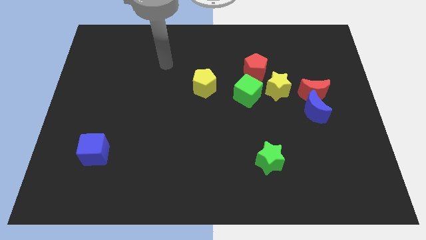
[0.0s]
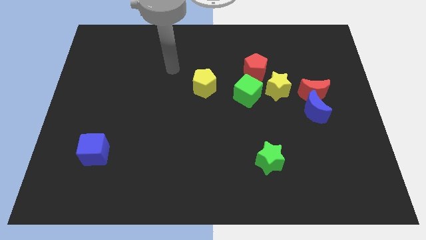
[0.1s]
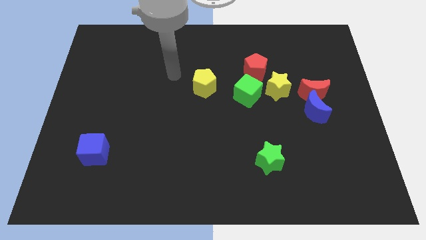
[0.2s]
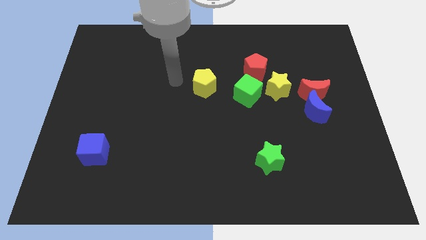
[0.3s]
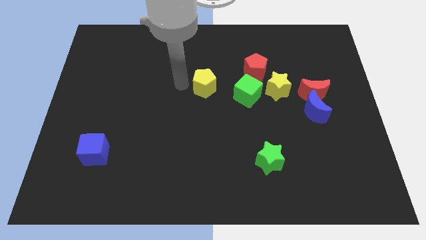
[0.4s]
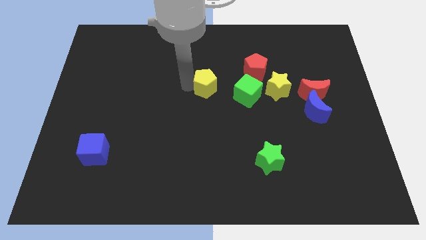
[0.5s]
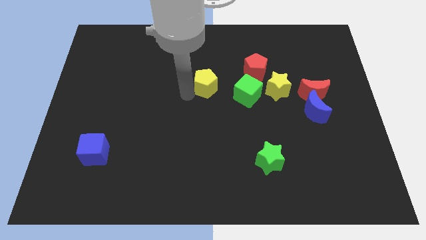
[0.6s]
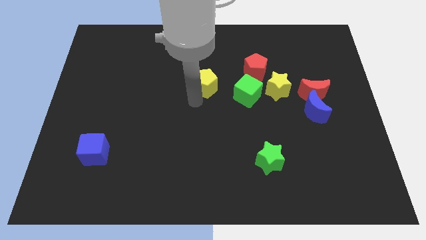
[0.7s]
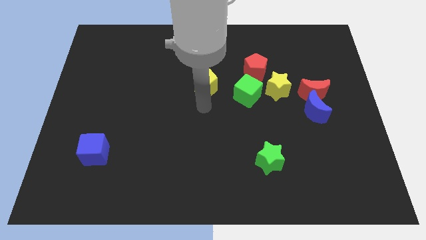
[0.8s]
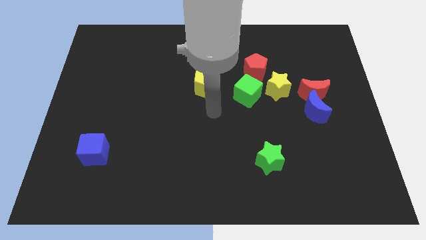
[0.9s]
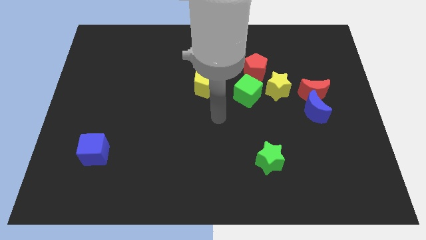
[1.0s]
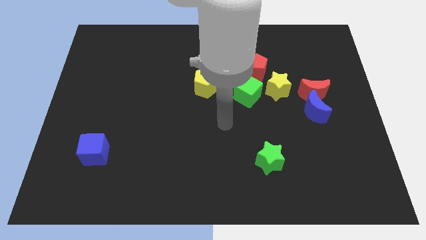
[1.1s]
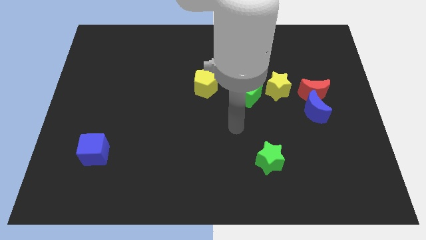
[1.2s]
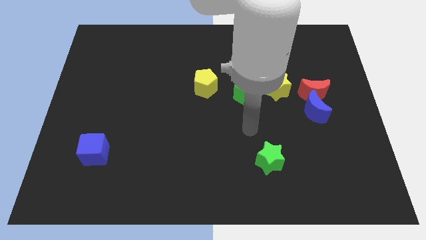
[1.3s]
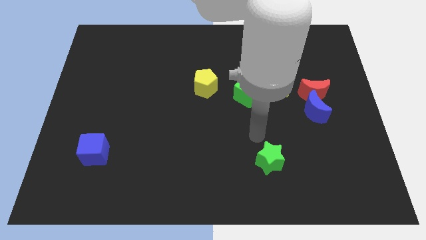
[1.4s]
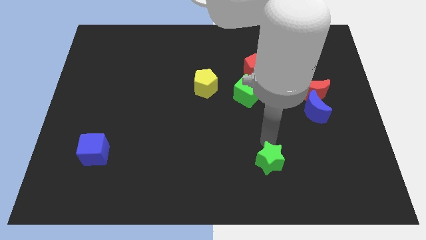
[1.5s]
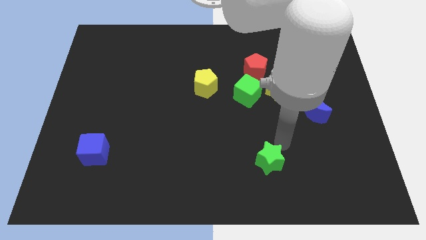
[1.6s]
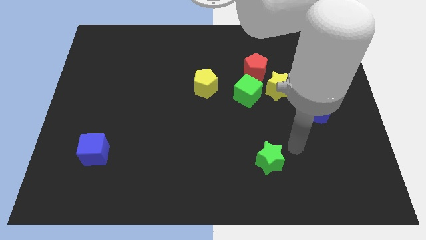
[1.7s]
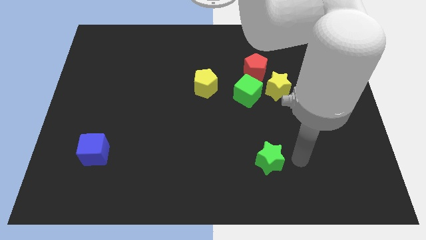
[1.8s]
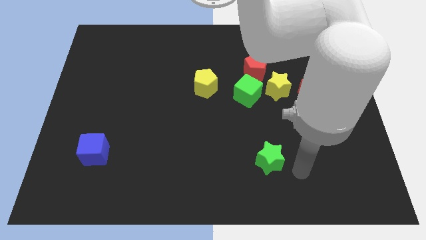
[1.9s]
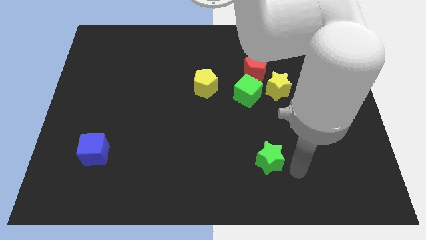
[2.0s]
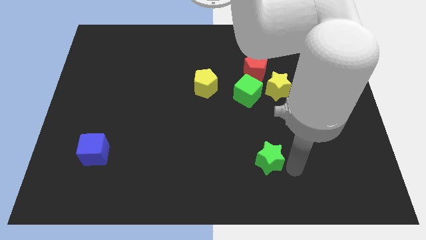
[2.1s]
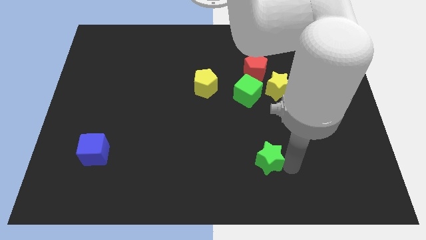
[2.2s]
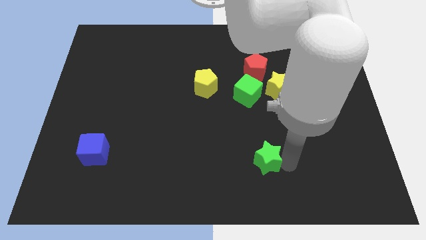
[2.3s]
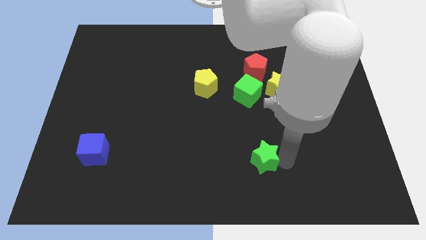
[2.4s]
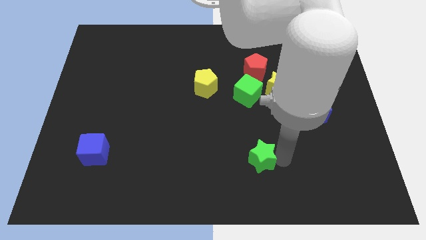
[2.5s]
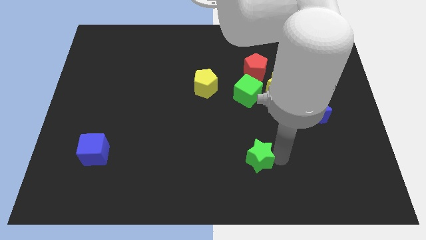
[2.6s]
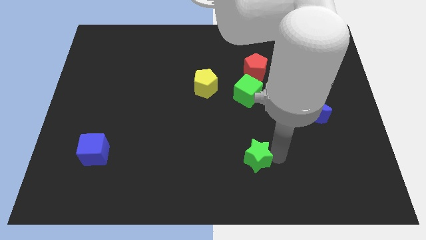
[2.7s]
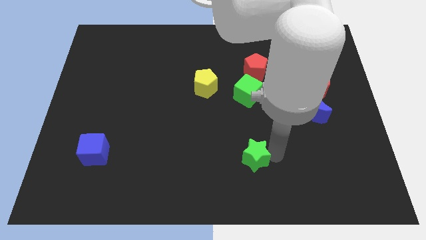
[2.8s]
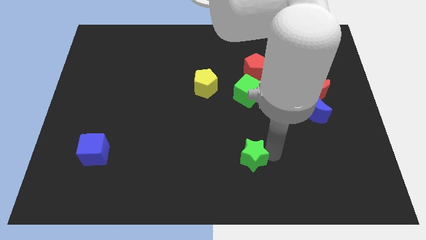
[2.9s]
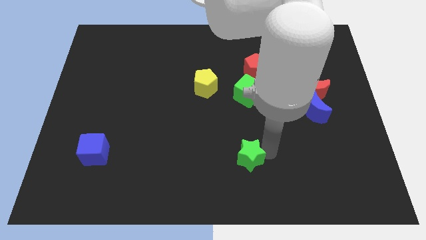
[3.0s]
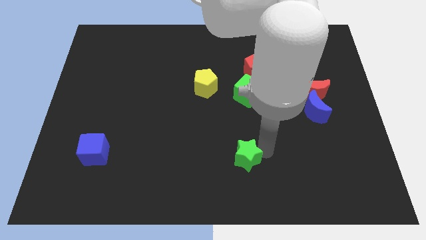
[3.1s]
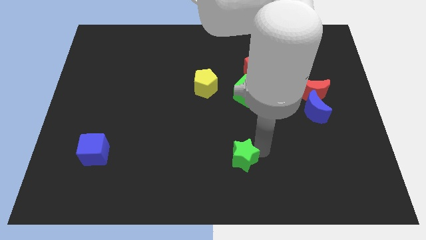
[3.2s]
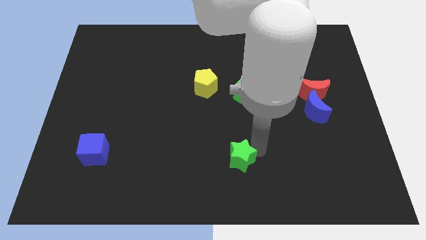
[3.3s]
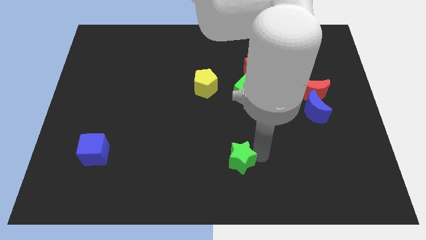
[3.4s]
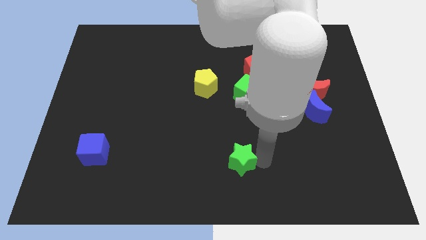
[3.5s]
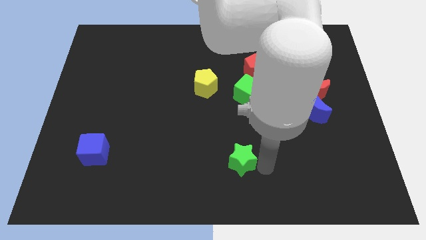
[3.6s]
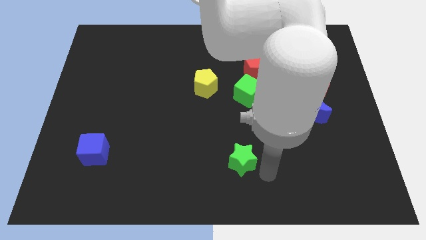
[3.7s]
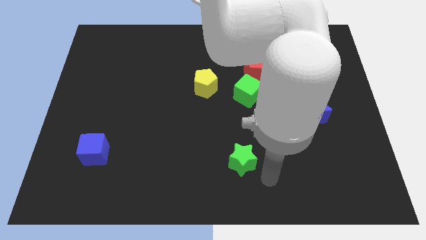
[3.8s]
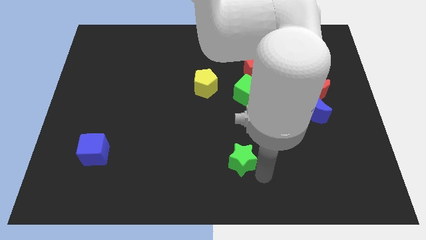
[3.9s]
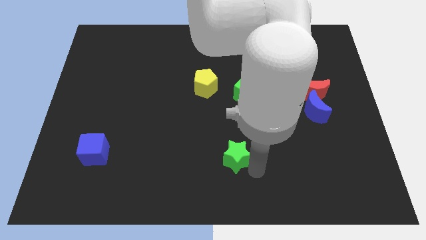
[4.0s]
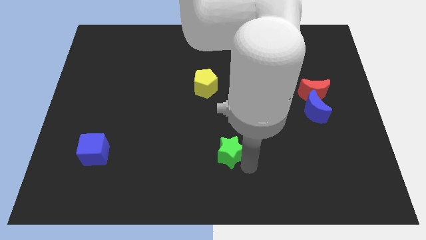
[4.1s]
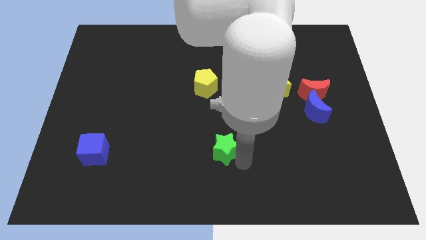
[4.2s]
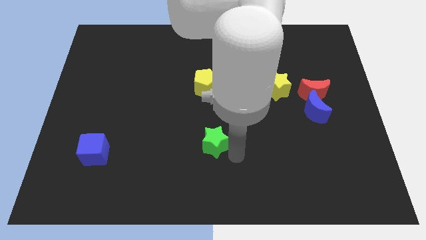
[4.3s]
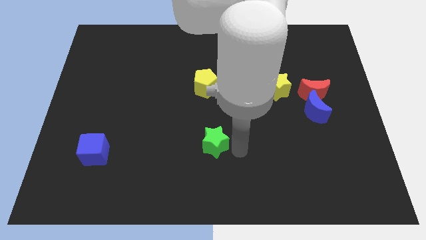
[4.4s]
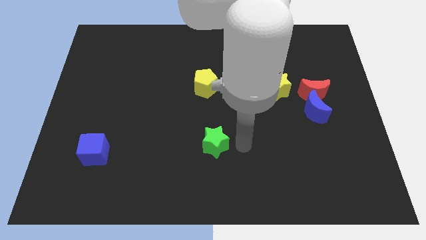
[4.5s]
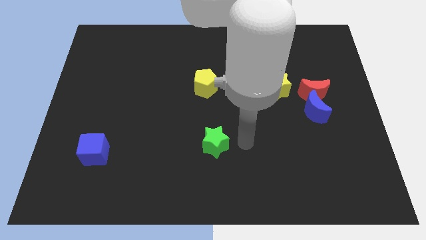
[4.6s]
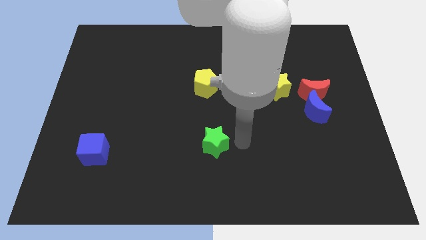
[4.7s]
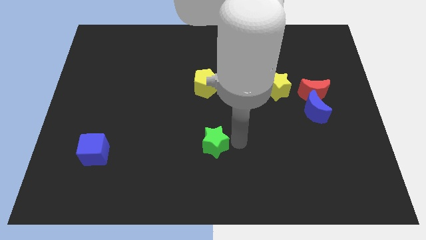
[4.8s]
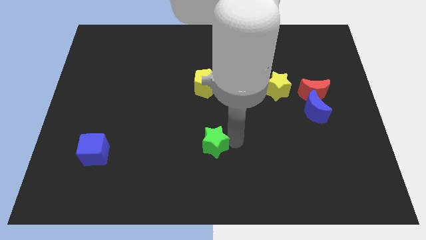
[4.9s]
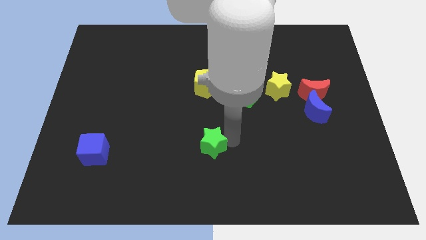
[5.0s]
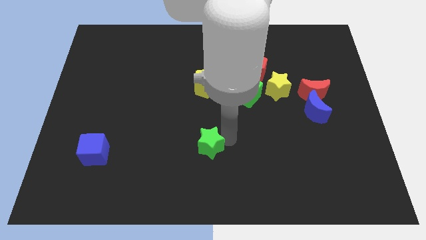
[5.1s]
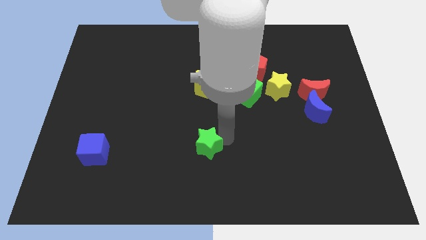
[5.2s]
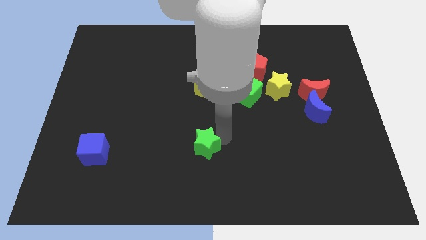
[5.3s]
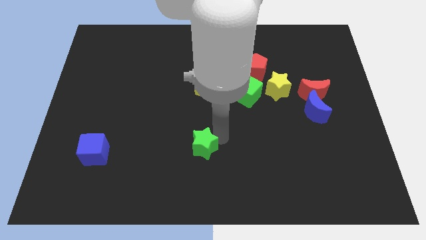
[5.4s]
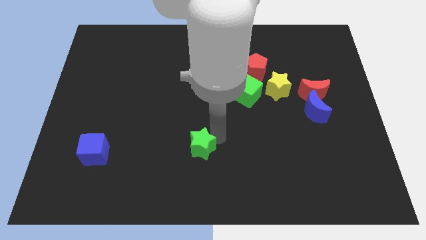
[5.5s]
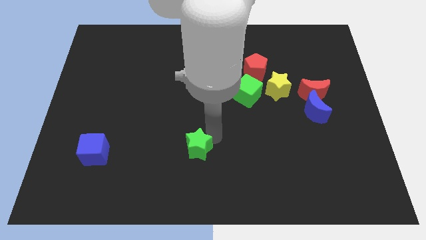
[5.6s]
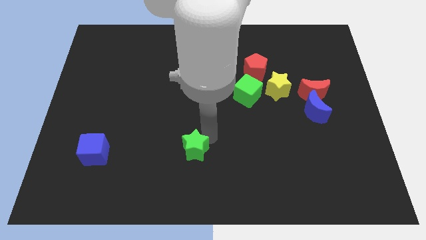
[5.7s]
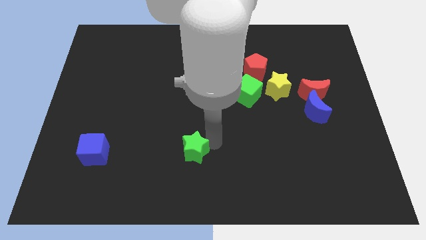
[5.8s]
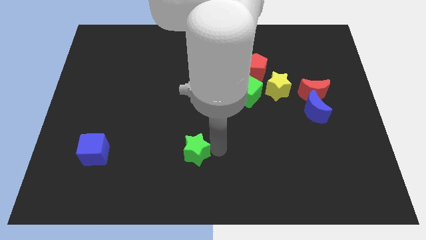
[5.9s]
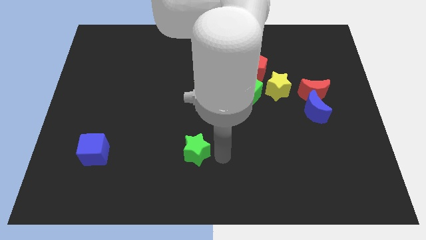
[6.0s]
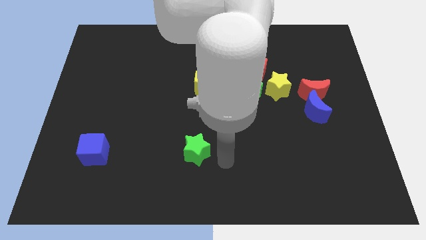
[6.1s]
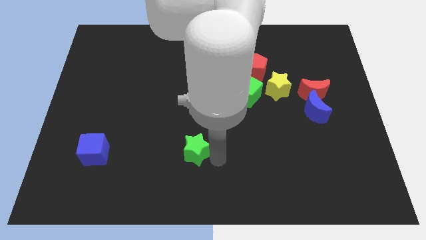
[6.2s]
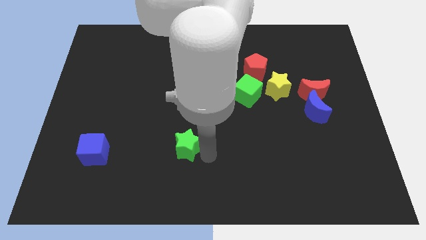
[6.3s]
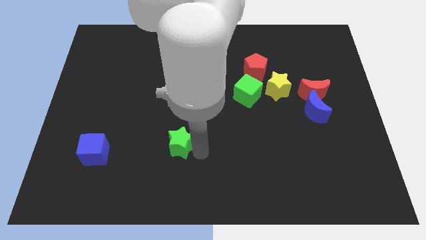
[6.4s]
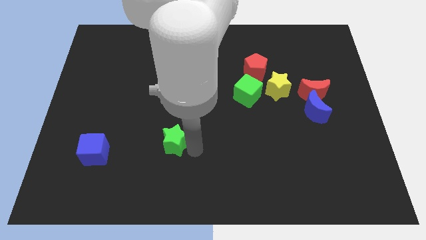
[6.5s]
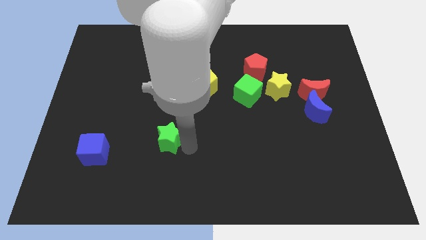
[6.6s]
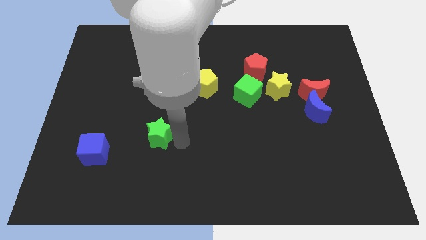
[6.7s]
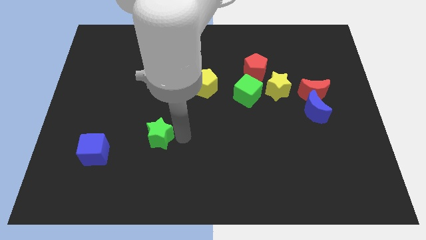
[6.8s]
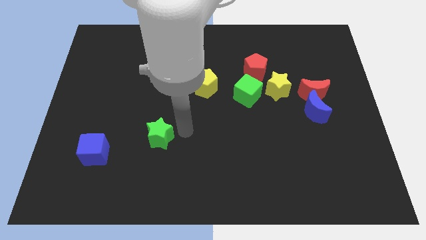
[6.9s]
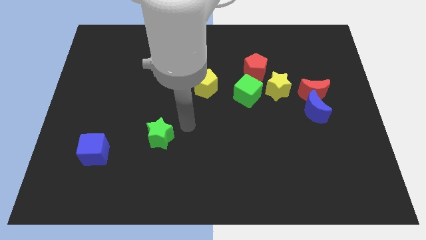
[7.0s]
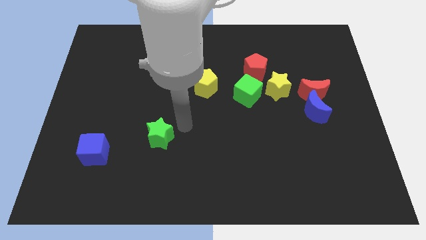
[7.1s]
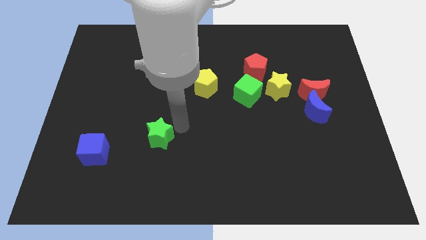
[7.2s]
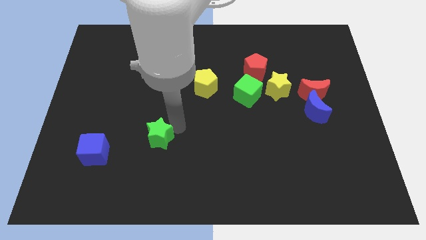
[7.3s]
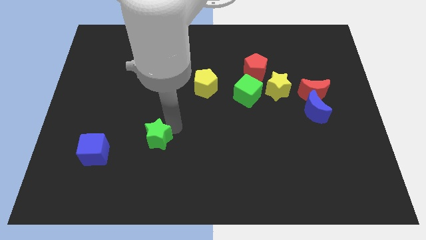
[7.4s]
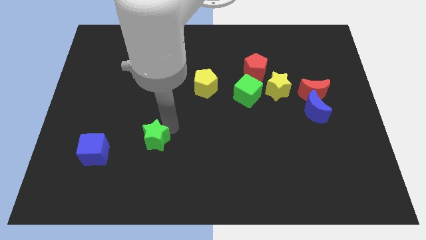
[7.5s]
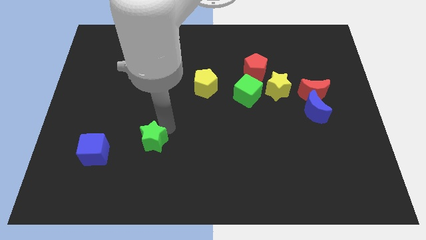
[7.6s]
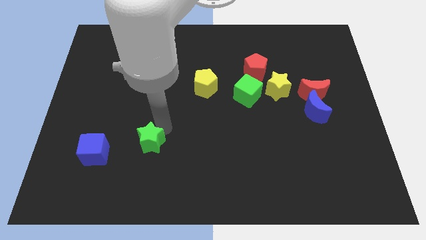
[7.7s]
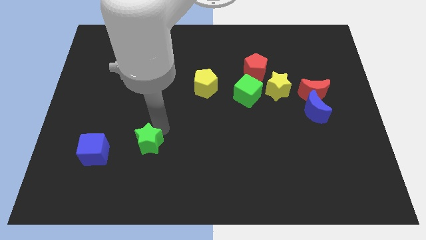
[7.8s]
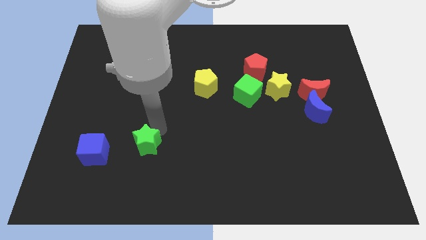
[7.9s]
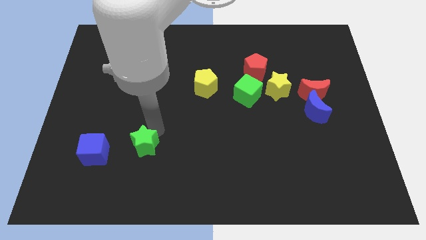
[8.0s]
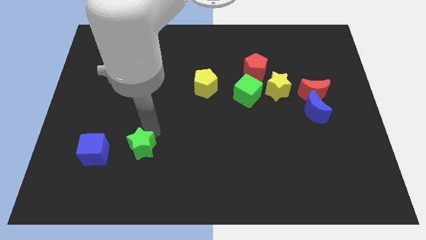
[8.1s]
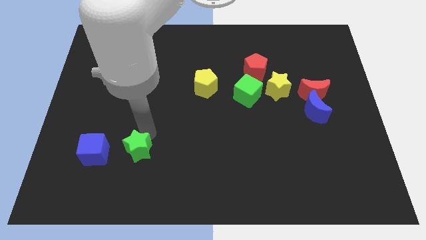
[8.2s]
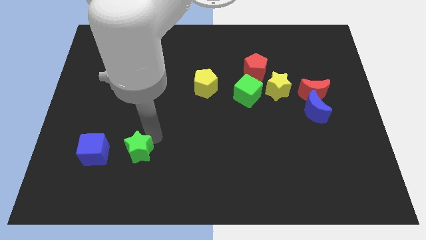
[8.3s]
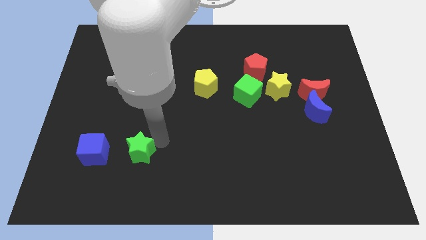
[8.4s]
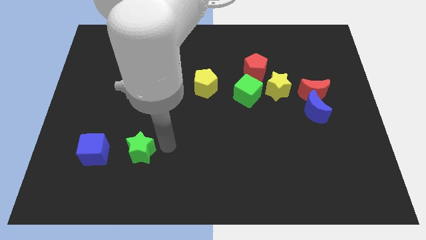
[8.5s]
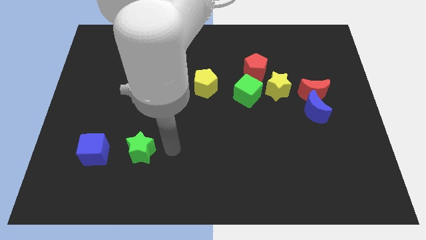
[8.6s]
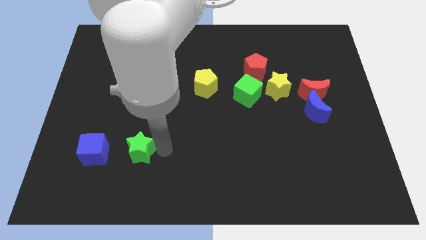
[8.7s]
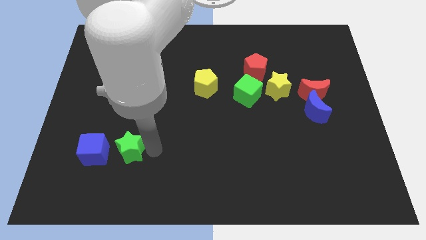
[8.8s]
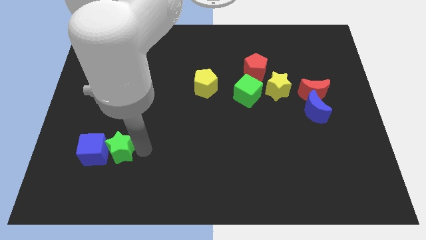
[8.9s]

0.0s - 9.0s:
push the green star next to the blue cube
